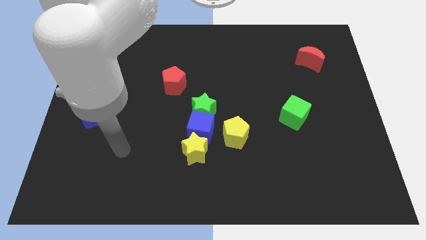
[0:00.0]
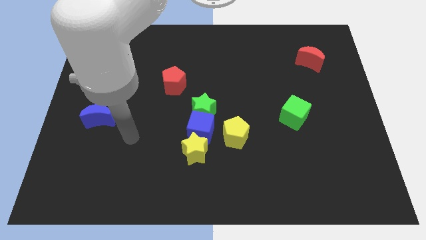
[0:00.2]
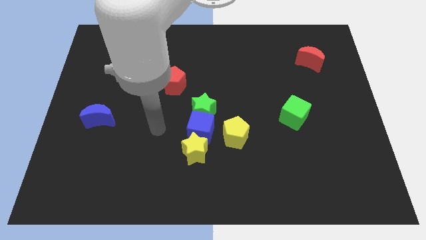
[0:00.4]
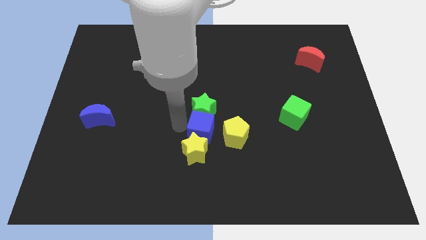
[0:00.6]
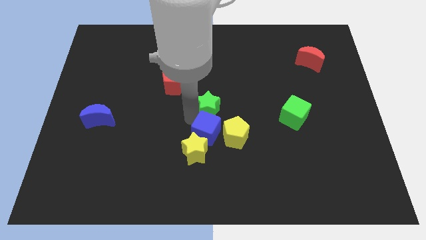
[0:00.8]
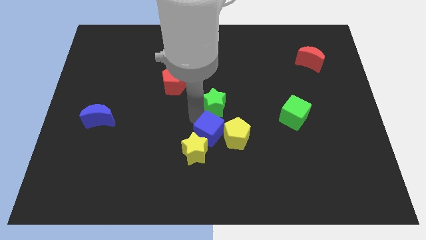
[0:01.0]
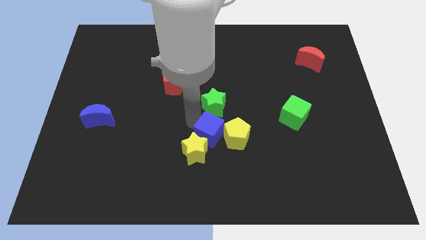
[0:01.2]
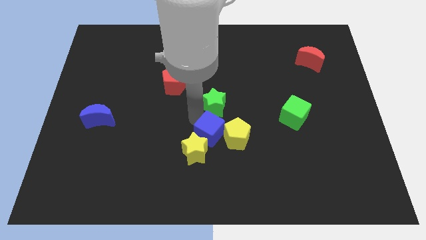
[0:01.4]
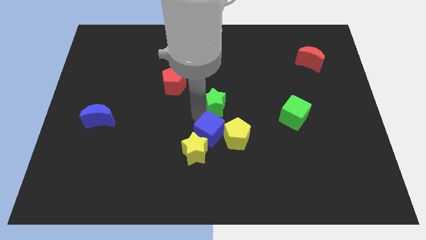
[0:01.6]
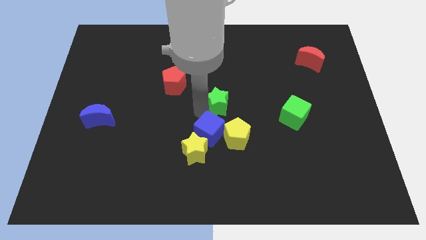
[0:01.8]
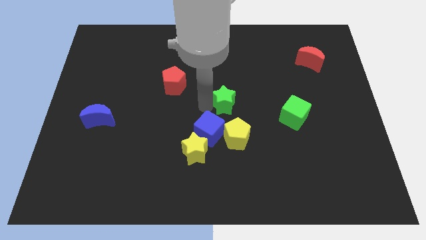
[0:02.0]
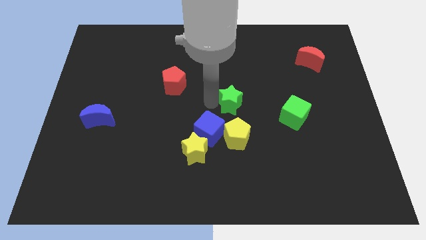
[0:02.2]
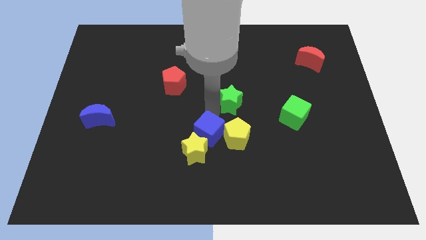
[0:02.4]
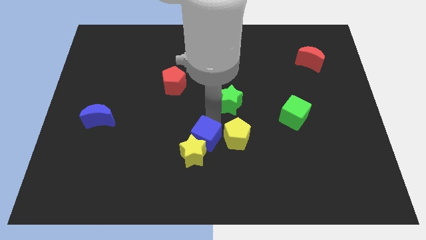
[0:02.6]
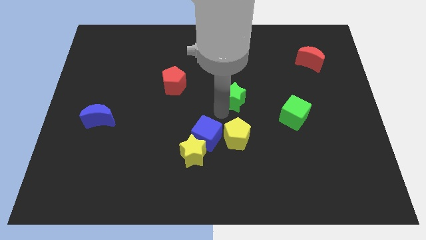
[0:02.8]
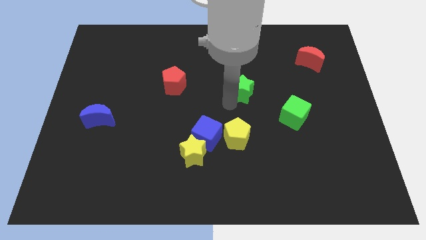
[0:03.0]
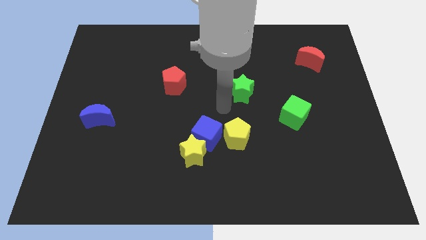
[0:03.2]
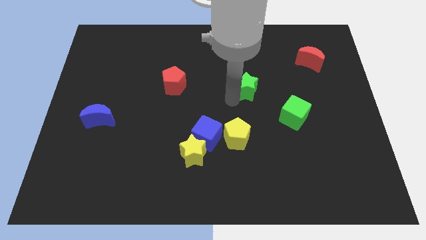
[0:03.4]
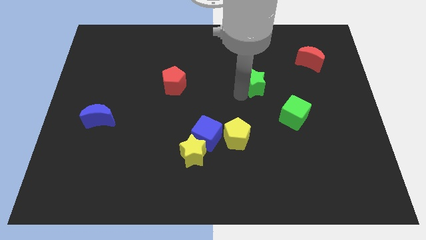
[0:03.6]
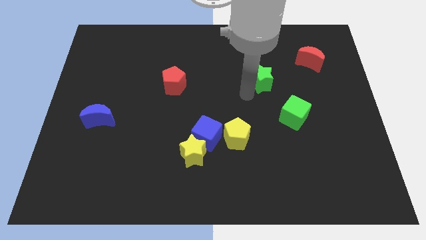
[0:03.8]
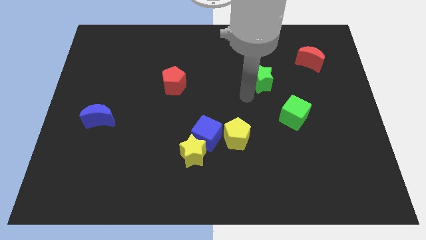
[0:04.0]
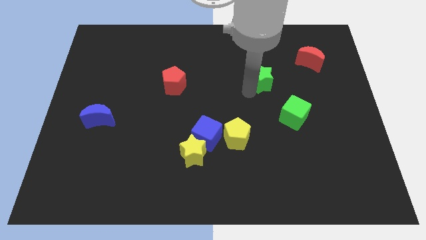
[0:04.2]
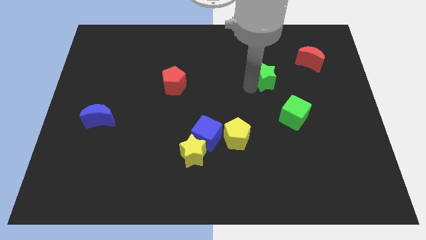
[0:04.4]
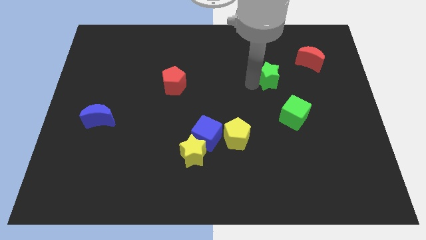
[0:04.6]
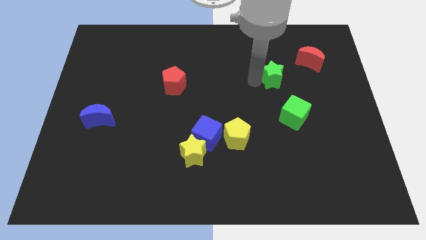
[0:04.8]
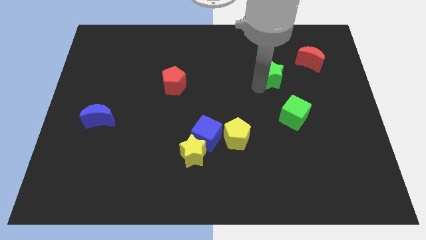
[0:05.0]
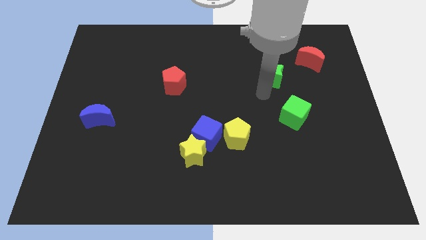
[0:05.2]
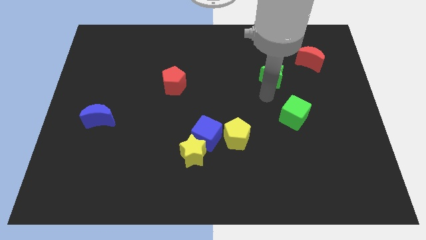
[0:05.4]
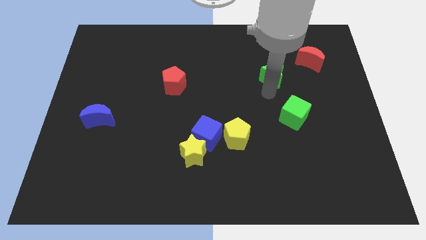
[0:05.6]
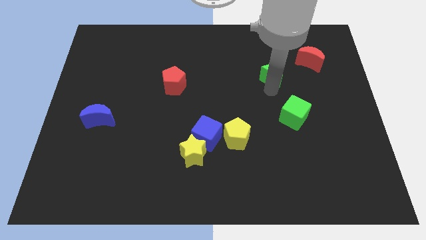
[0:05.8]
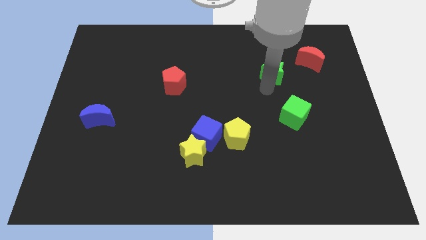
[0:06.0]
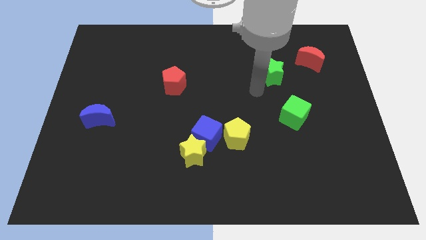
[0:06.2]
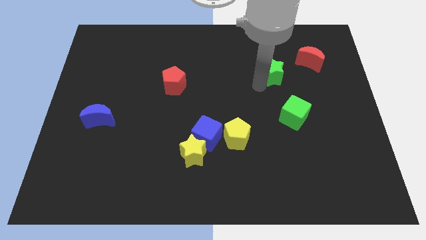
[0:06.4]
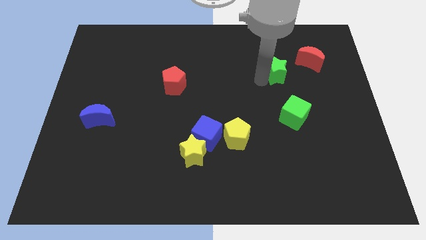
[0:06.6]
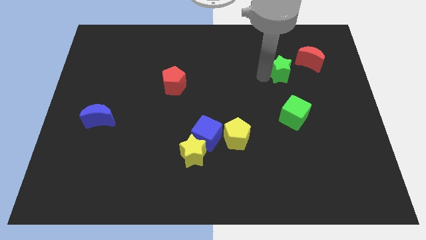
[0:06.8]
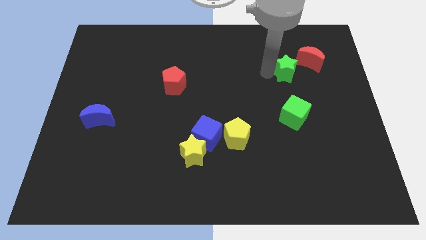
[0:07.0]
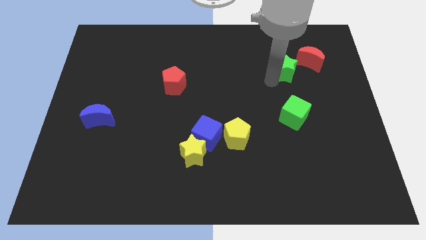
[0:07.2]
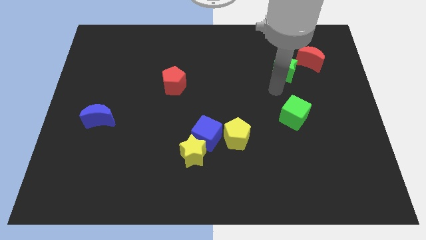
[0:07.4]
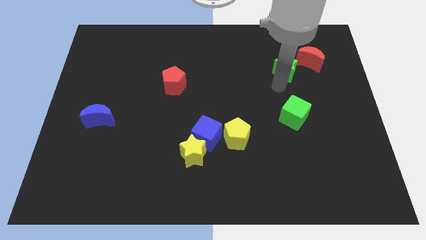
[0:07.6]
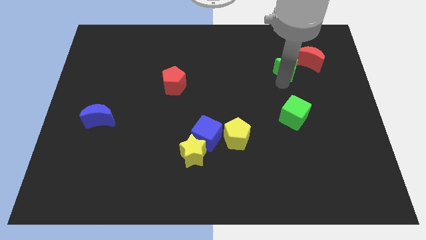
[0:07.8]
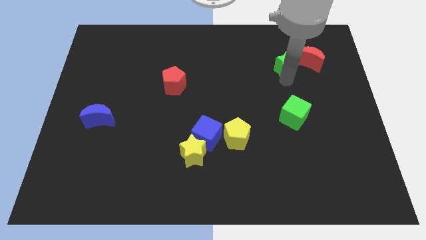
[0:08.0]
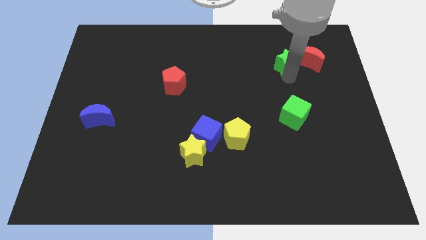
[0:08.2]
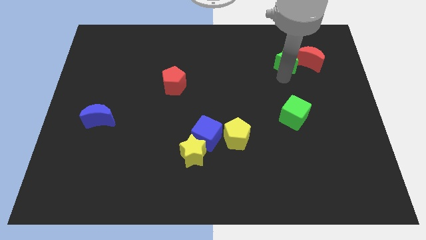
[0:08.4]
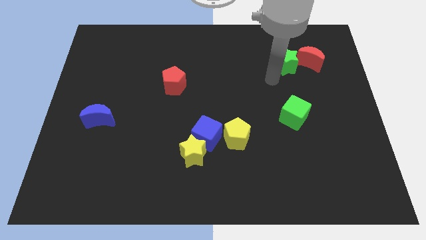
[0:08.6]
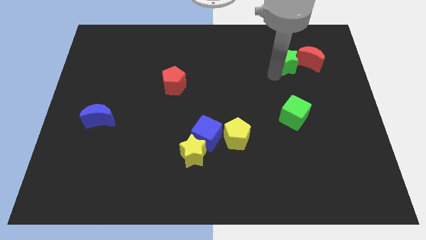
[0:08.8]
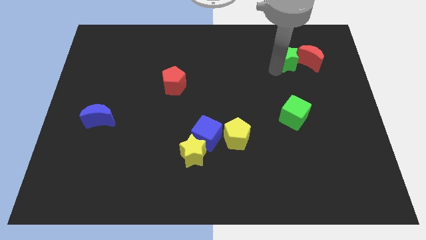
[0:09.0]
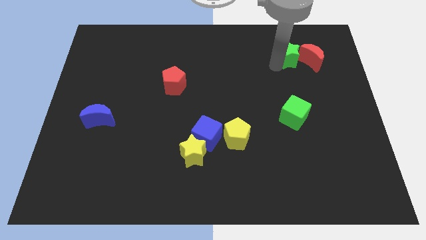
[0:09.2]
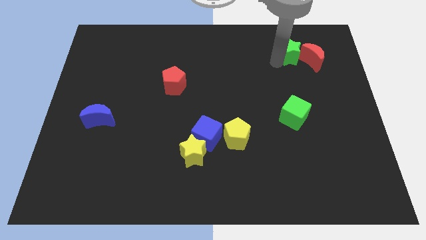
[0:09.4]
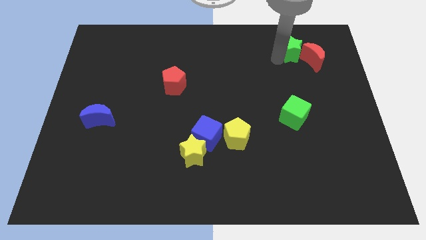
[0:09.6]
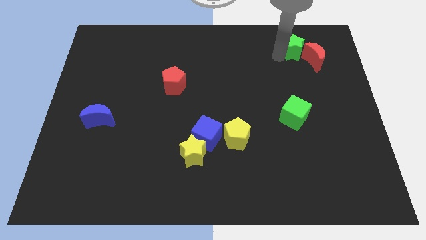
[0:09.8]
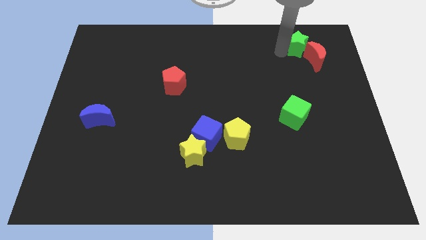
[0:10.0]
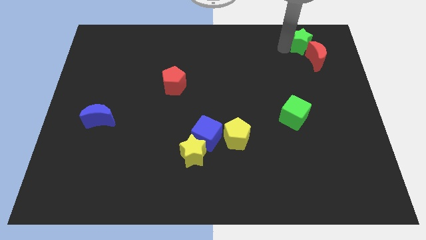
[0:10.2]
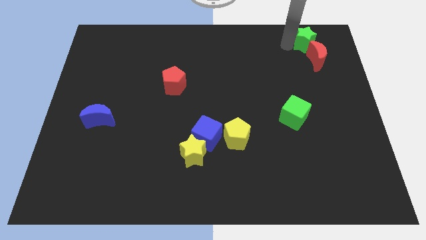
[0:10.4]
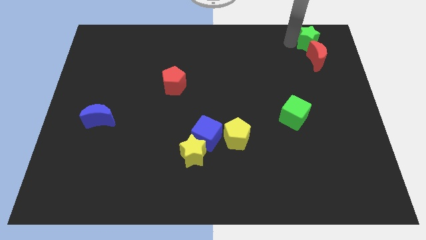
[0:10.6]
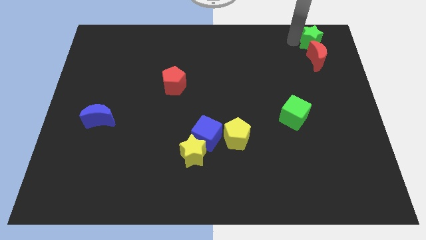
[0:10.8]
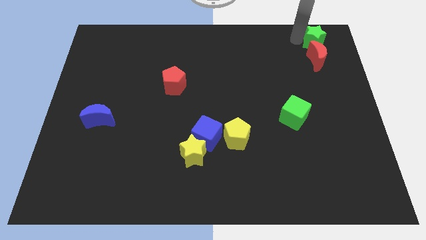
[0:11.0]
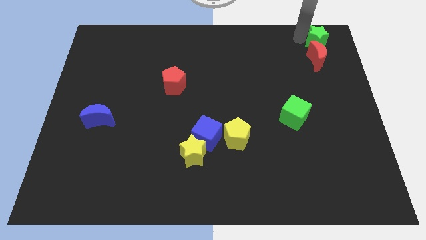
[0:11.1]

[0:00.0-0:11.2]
put the green star to the upper right corner
